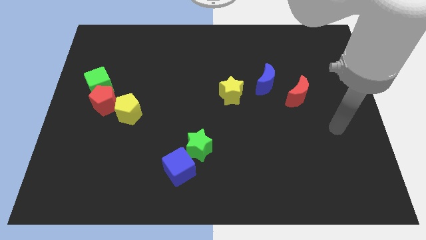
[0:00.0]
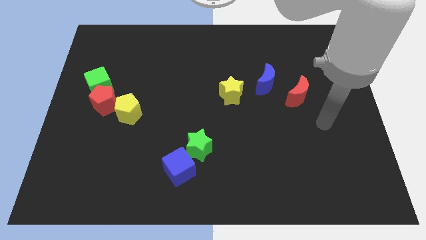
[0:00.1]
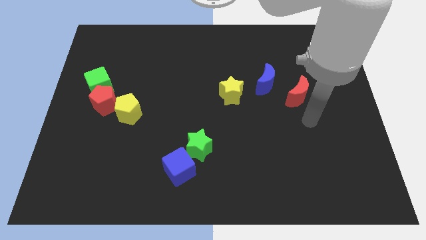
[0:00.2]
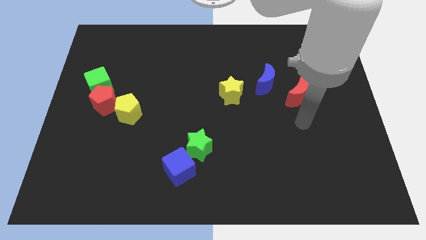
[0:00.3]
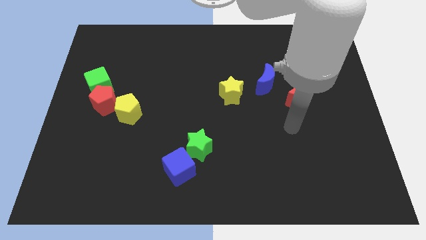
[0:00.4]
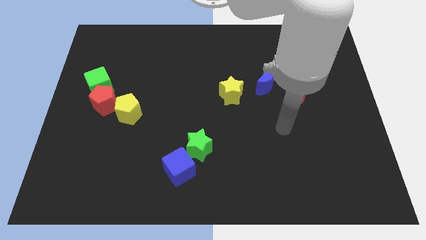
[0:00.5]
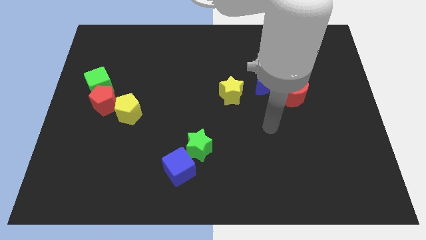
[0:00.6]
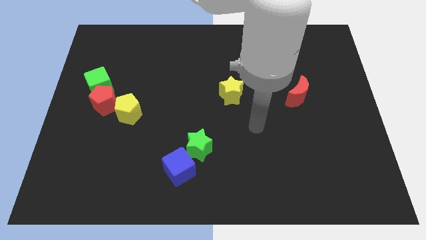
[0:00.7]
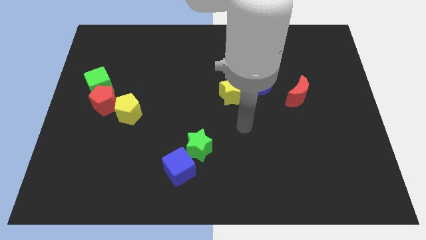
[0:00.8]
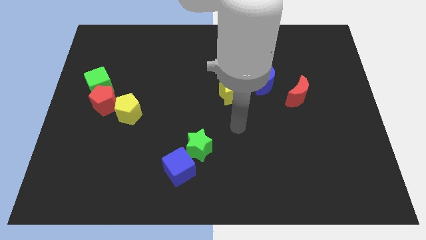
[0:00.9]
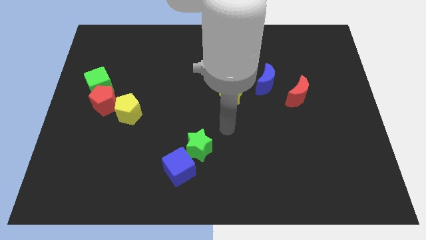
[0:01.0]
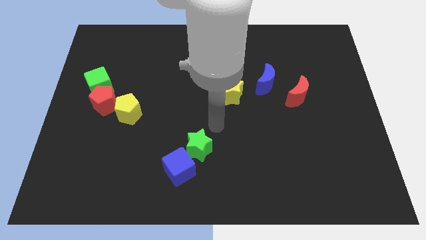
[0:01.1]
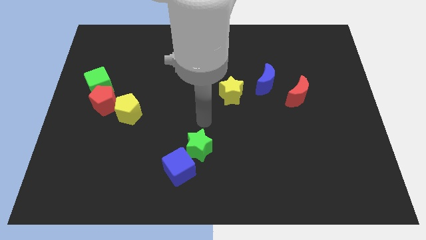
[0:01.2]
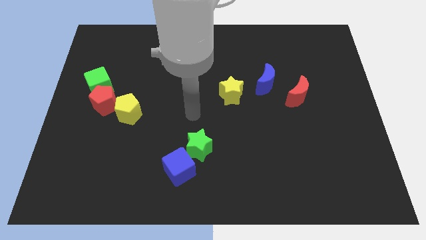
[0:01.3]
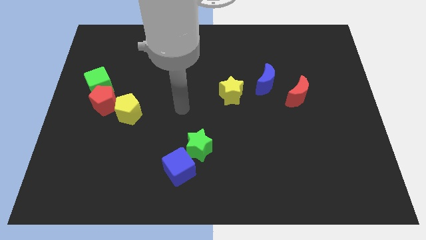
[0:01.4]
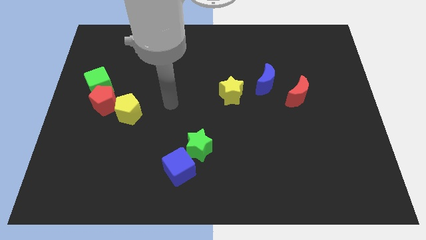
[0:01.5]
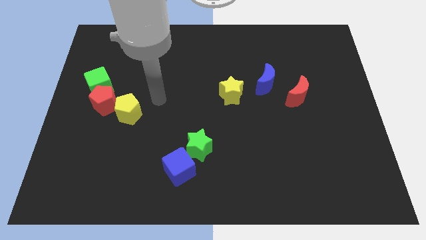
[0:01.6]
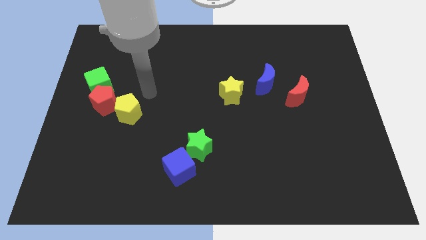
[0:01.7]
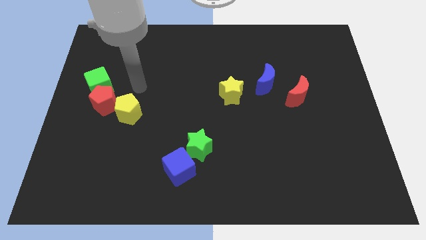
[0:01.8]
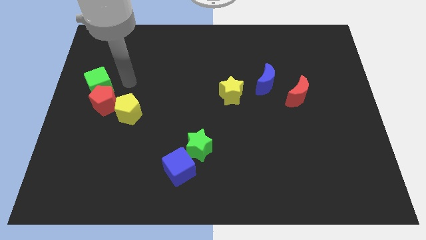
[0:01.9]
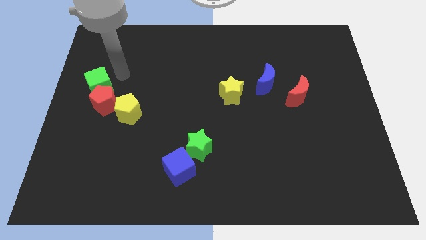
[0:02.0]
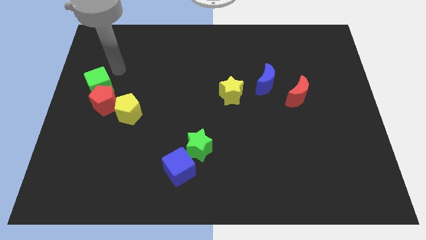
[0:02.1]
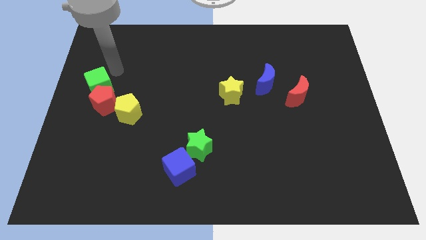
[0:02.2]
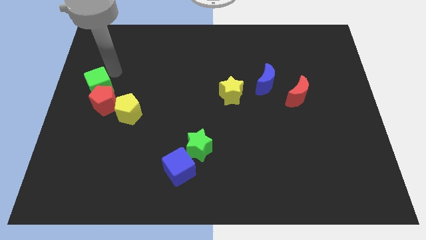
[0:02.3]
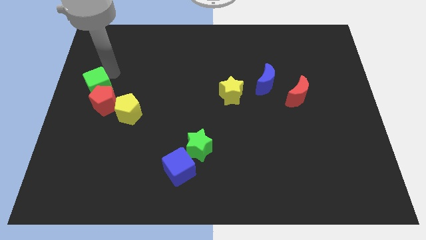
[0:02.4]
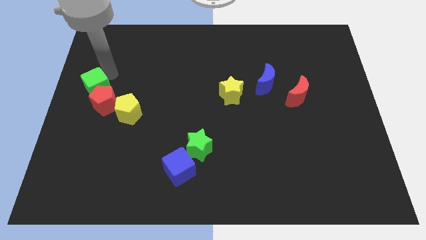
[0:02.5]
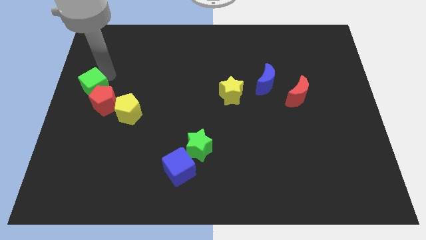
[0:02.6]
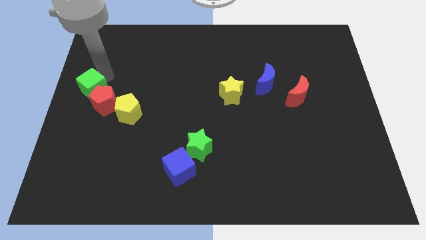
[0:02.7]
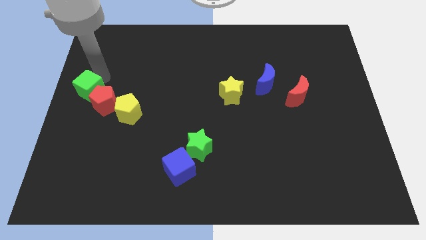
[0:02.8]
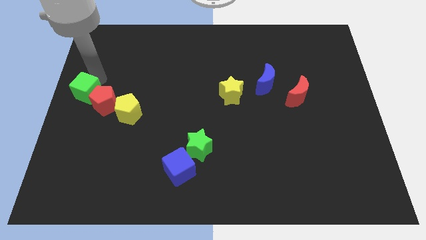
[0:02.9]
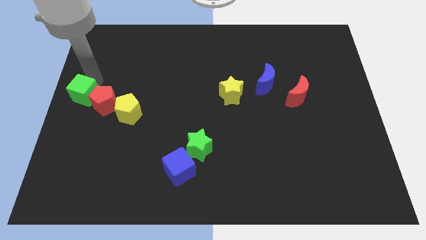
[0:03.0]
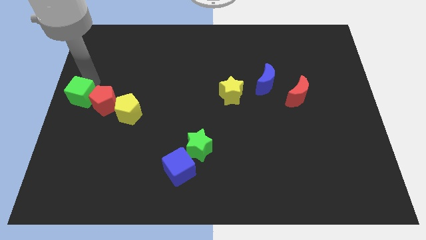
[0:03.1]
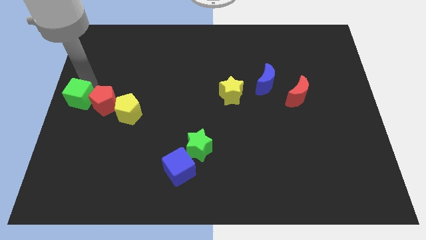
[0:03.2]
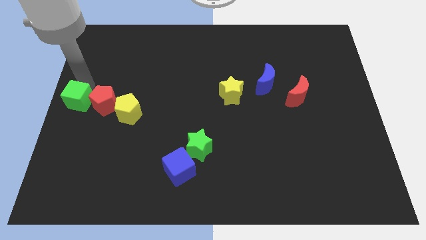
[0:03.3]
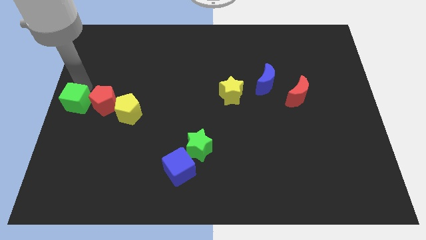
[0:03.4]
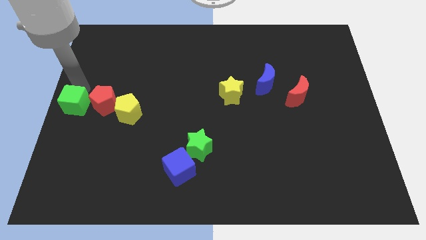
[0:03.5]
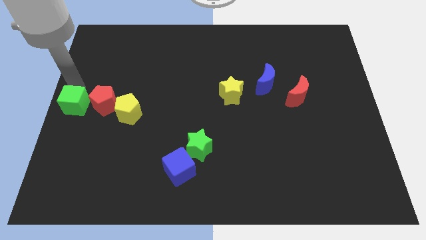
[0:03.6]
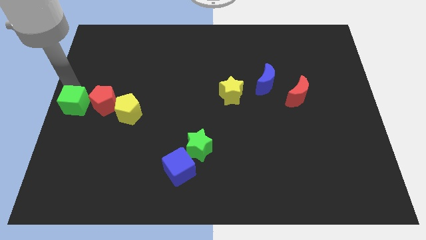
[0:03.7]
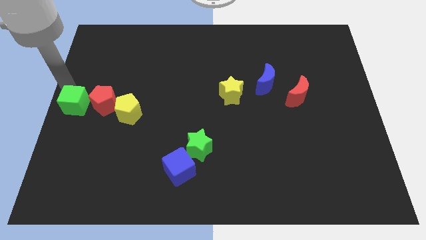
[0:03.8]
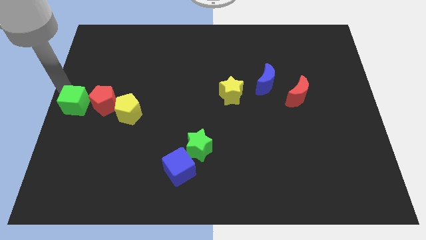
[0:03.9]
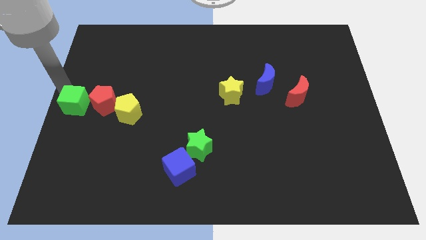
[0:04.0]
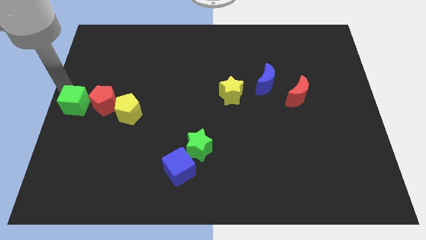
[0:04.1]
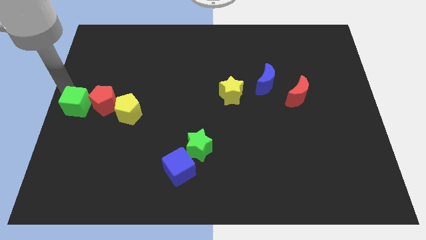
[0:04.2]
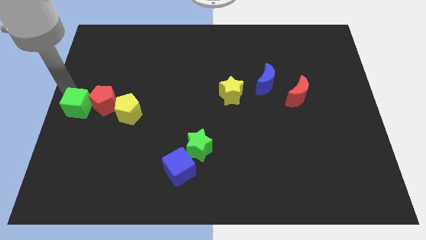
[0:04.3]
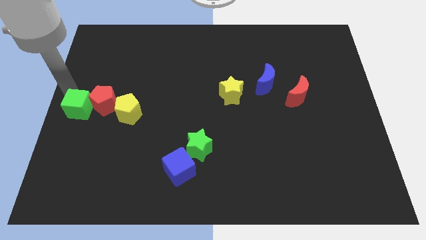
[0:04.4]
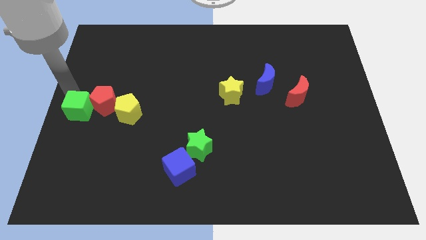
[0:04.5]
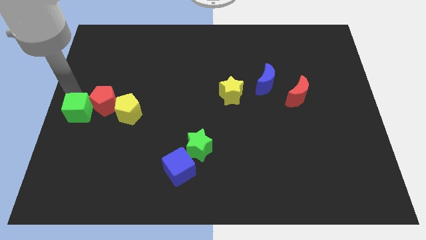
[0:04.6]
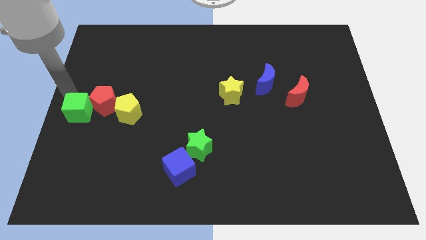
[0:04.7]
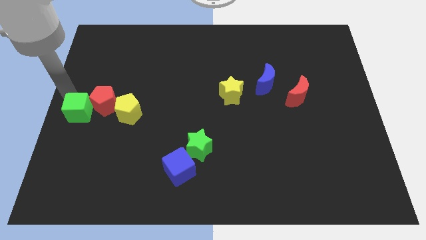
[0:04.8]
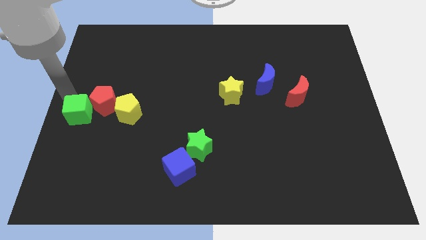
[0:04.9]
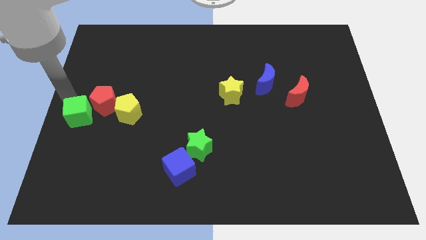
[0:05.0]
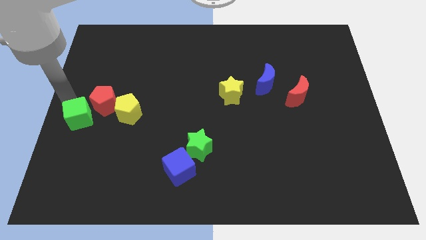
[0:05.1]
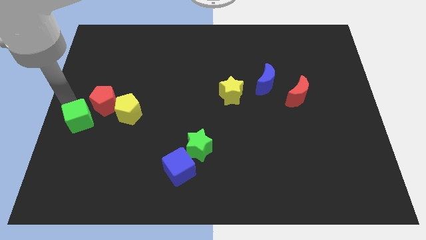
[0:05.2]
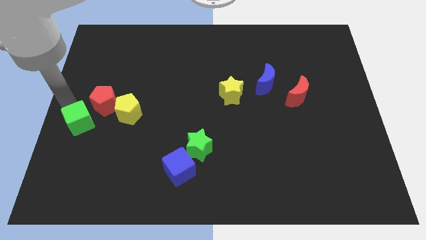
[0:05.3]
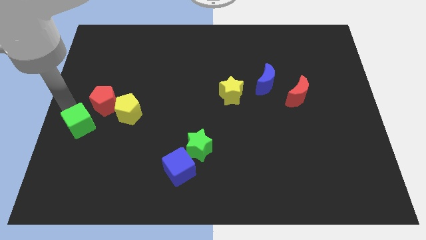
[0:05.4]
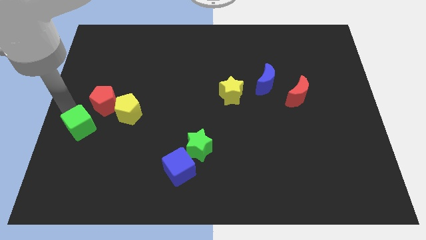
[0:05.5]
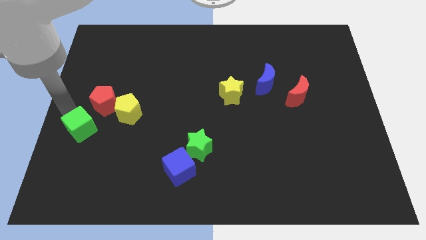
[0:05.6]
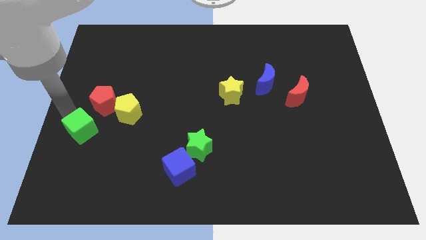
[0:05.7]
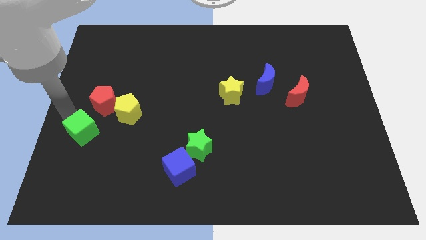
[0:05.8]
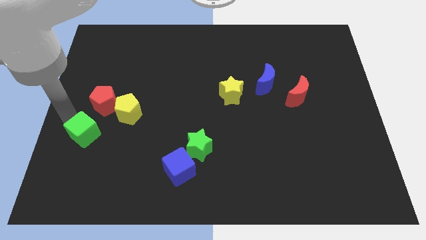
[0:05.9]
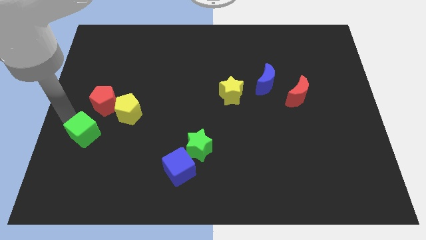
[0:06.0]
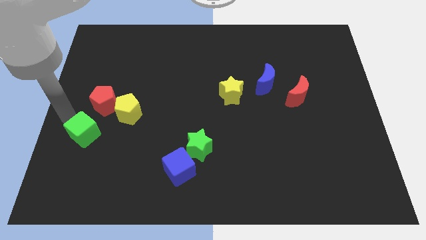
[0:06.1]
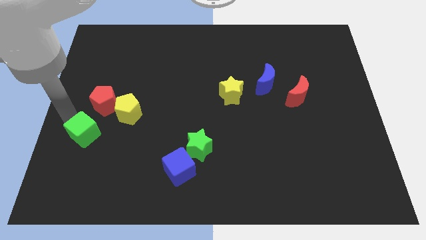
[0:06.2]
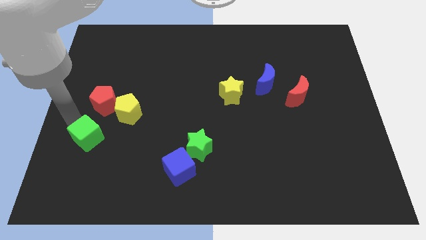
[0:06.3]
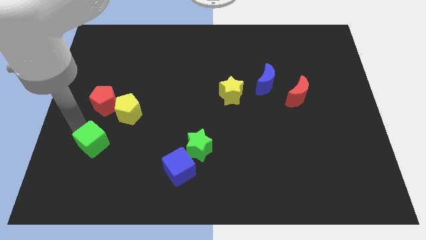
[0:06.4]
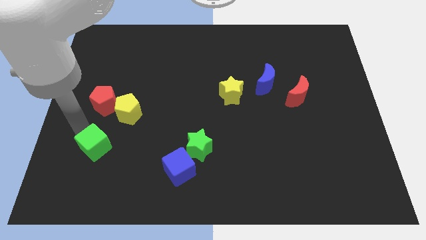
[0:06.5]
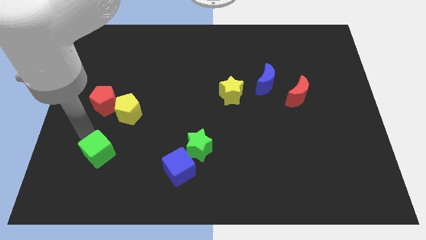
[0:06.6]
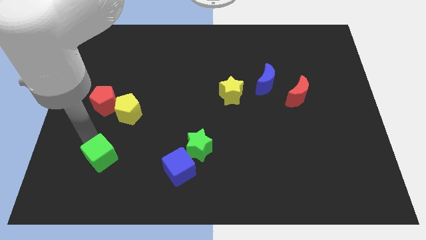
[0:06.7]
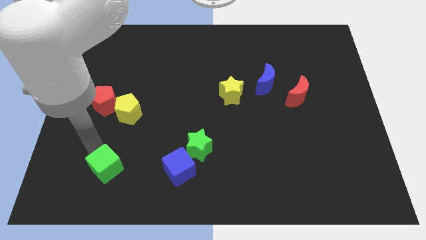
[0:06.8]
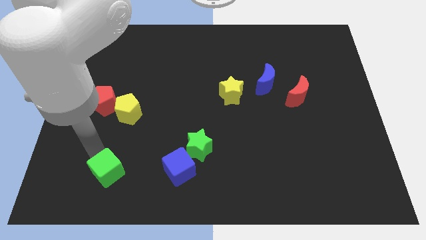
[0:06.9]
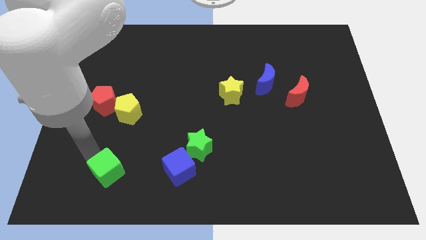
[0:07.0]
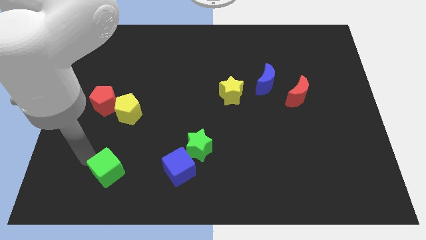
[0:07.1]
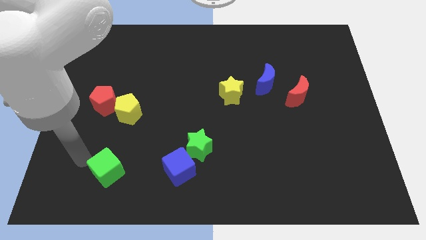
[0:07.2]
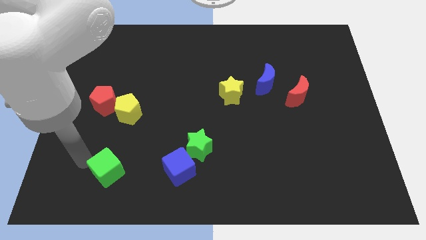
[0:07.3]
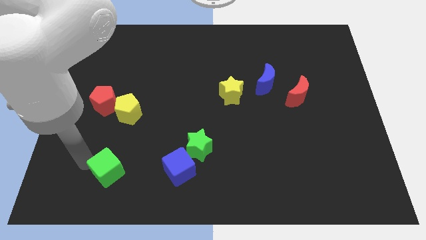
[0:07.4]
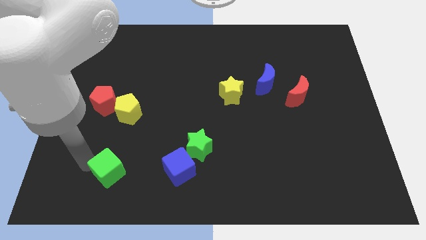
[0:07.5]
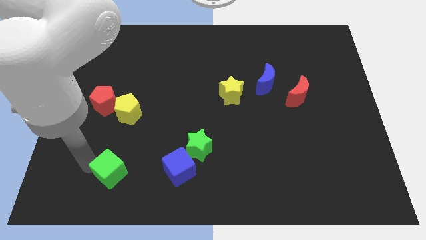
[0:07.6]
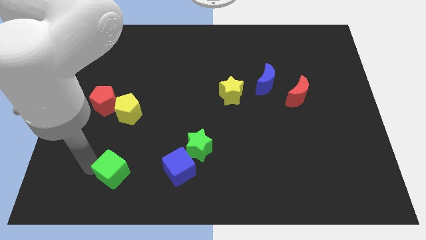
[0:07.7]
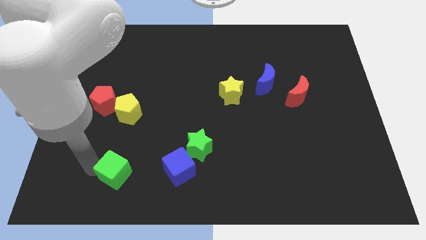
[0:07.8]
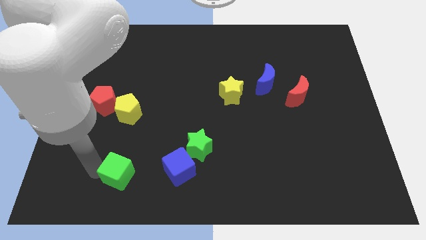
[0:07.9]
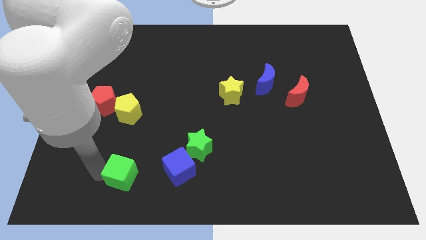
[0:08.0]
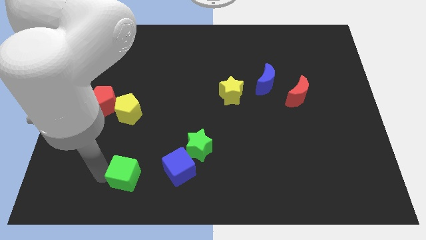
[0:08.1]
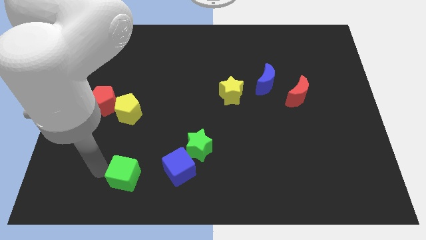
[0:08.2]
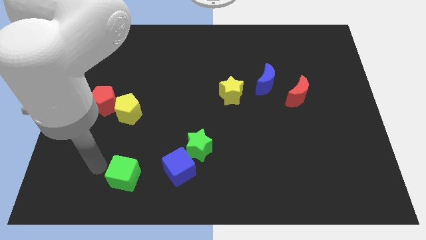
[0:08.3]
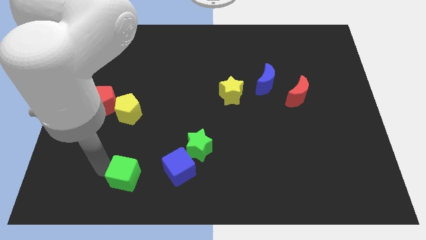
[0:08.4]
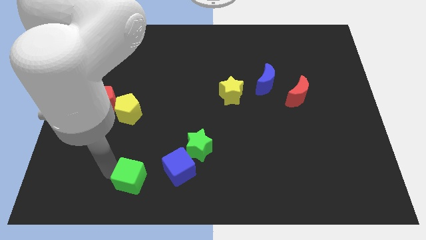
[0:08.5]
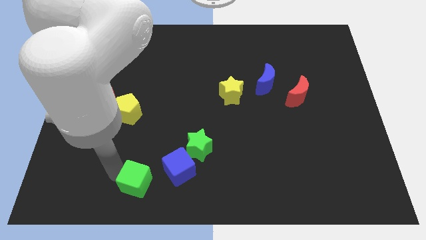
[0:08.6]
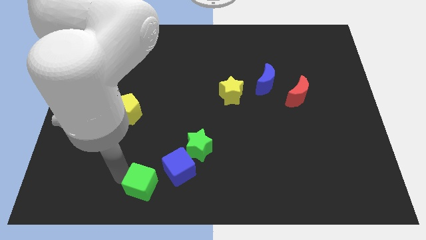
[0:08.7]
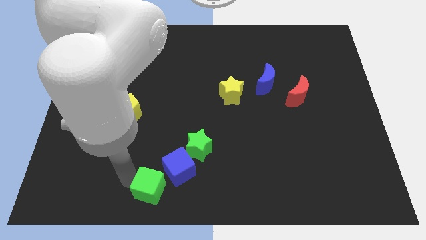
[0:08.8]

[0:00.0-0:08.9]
push the green cube to the bottom side
